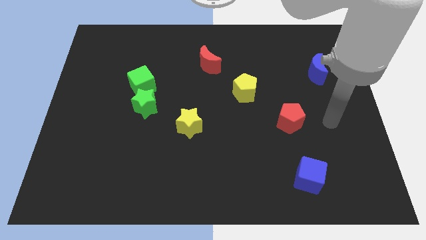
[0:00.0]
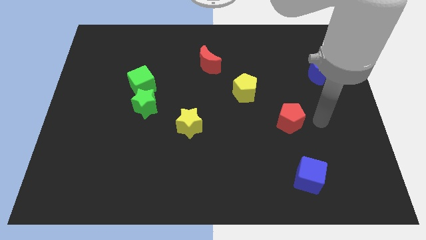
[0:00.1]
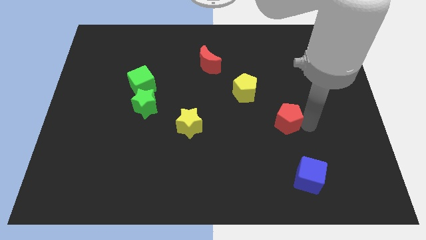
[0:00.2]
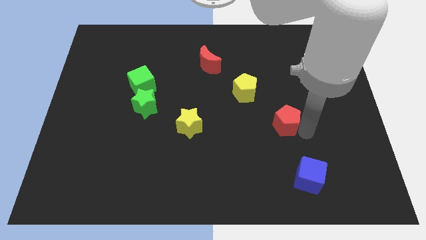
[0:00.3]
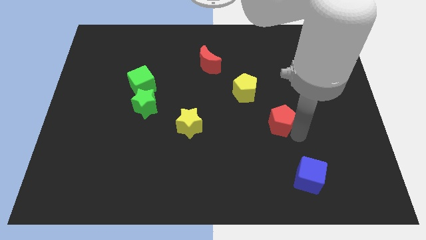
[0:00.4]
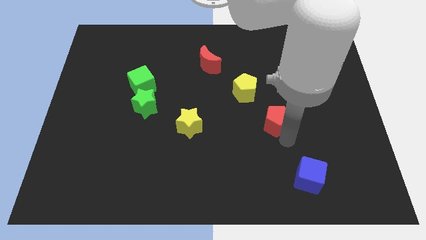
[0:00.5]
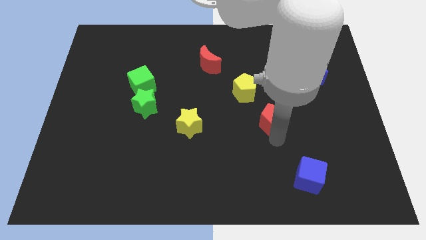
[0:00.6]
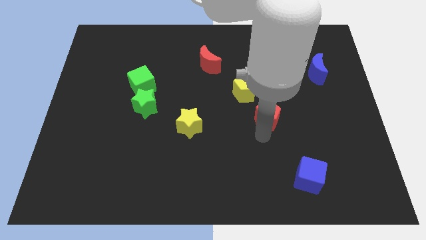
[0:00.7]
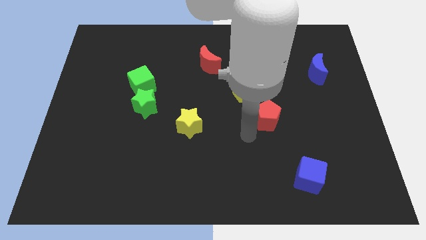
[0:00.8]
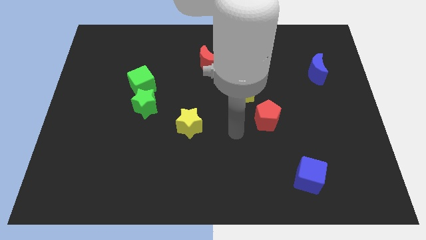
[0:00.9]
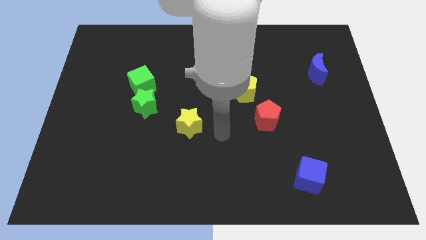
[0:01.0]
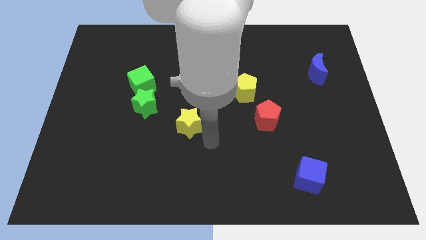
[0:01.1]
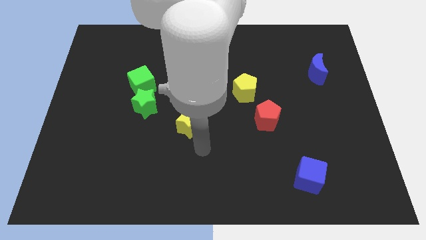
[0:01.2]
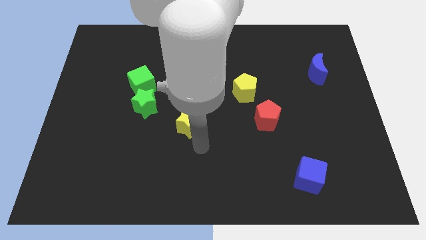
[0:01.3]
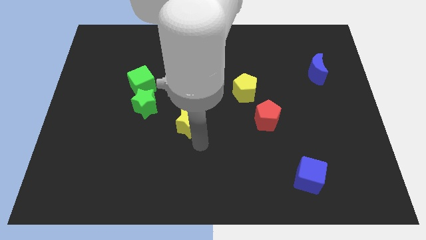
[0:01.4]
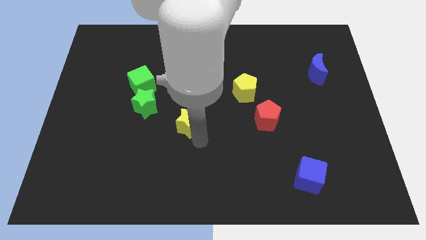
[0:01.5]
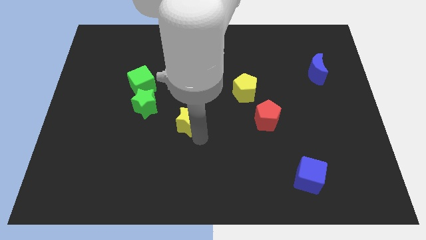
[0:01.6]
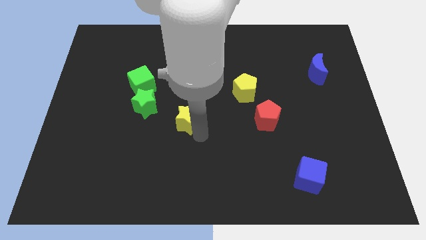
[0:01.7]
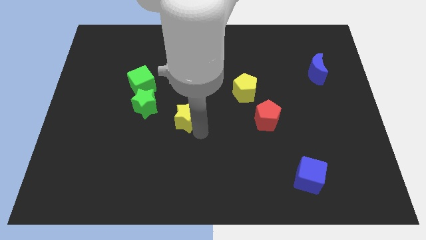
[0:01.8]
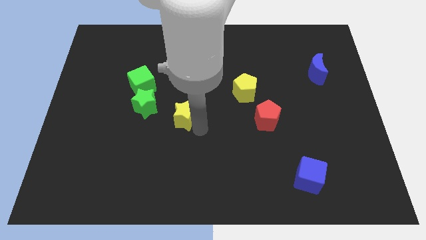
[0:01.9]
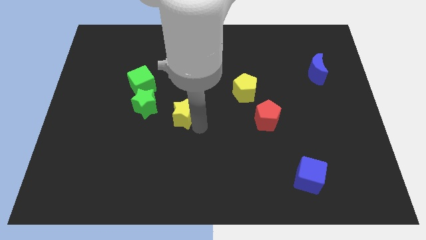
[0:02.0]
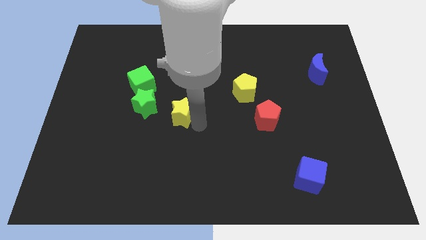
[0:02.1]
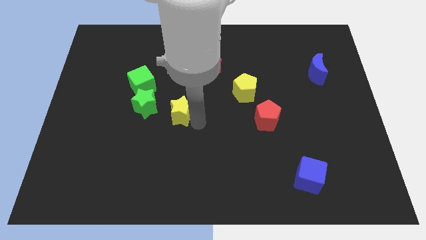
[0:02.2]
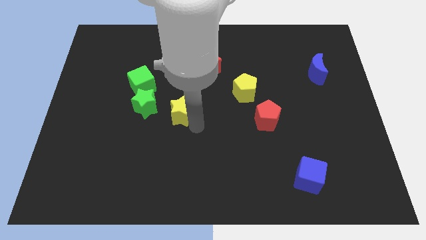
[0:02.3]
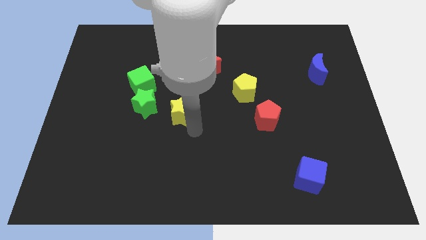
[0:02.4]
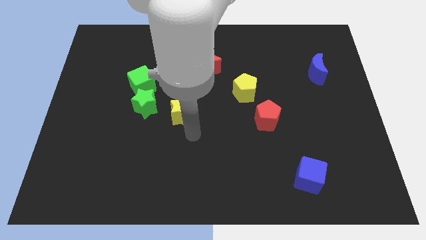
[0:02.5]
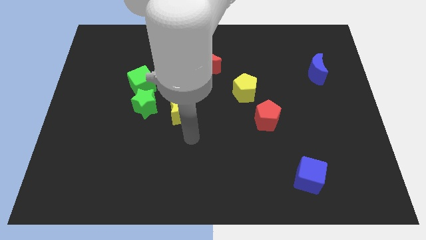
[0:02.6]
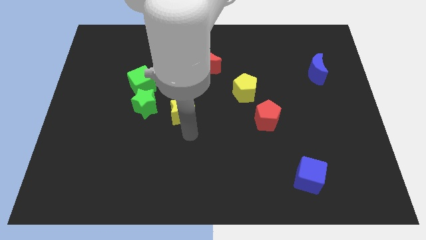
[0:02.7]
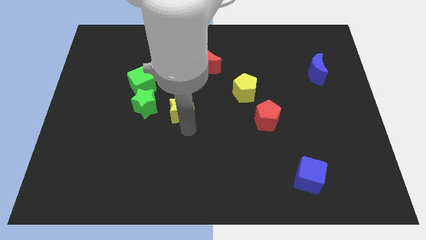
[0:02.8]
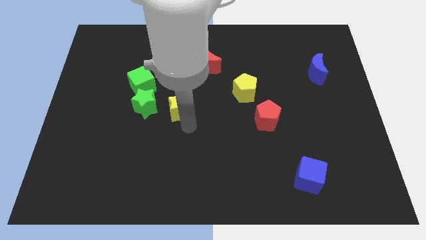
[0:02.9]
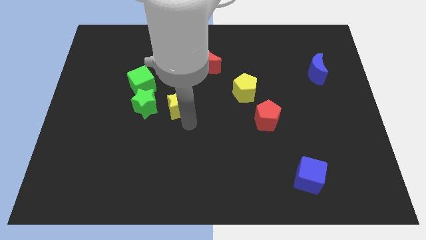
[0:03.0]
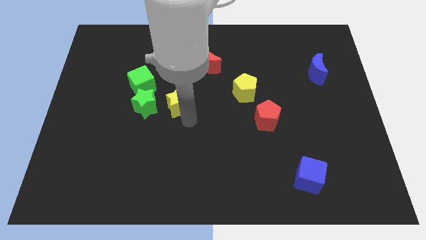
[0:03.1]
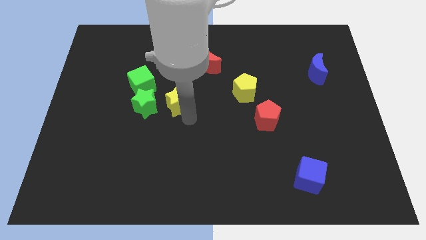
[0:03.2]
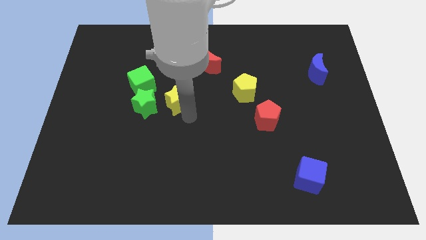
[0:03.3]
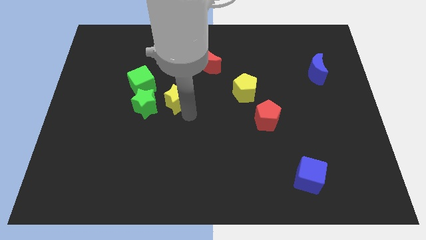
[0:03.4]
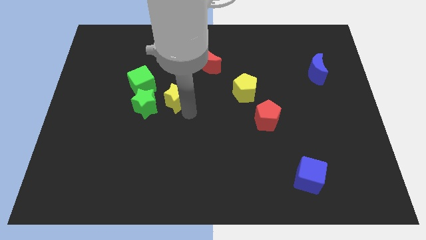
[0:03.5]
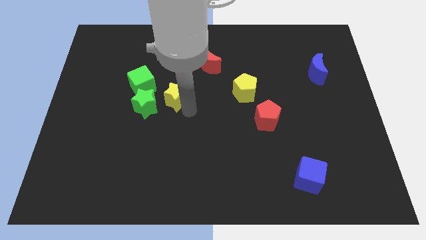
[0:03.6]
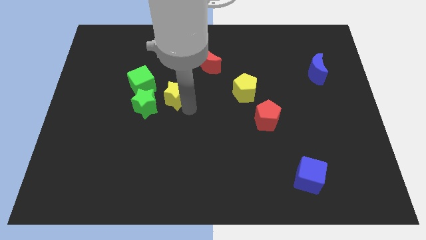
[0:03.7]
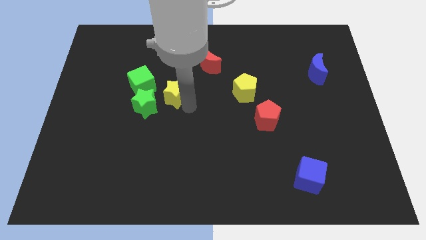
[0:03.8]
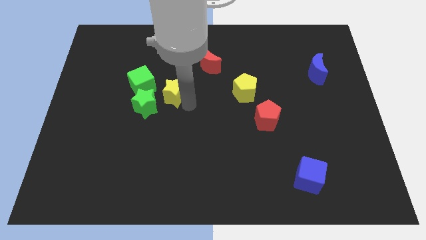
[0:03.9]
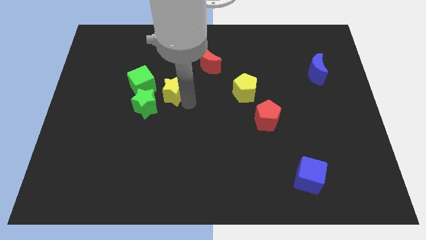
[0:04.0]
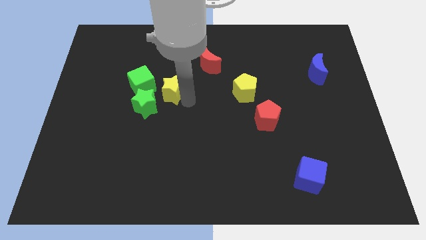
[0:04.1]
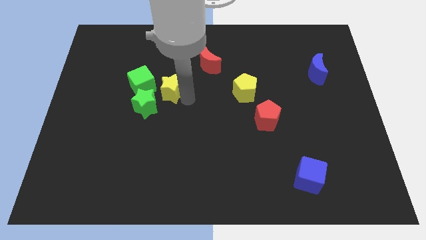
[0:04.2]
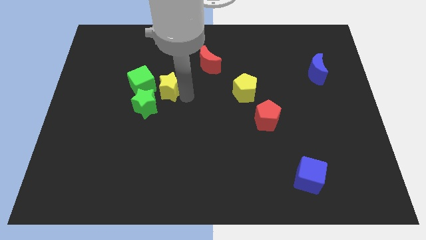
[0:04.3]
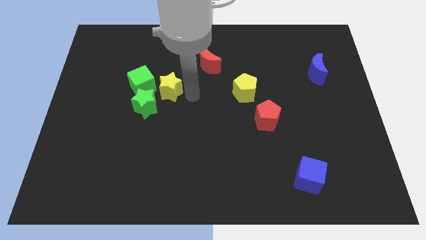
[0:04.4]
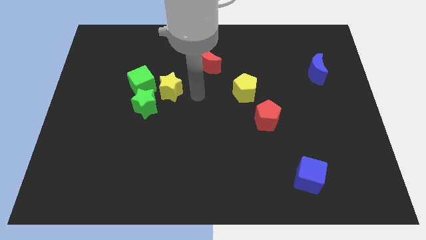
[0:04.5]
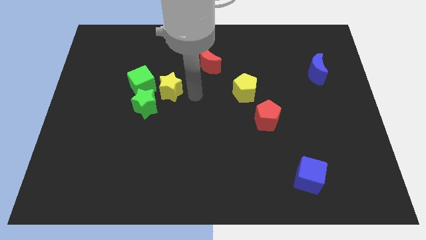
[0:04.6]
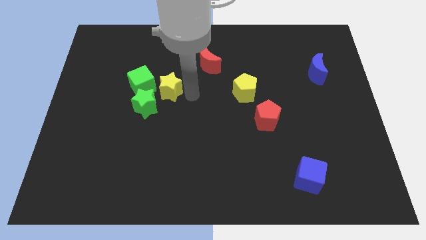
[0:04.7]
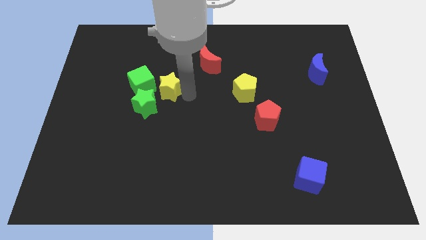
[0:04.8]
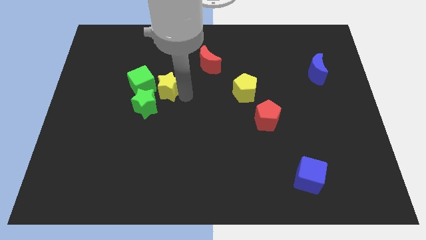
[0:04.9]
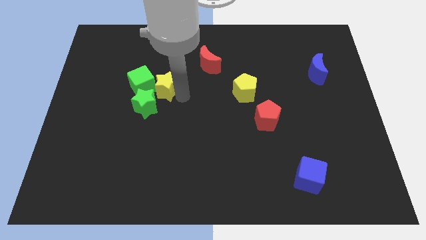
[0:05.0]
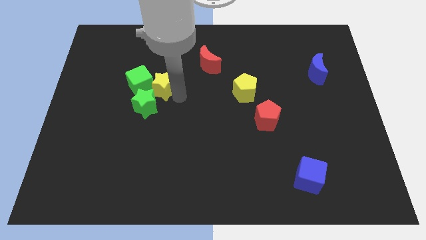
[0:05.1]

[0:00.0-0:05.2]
push the yellow star close to the green cube

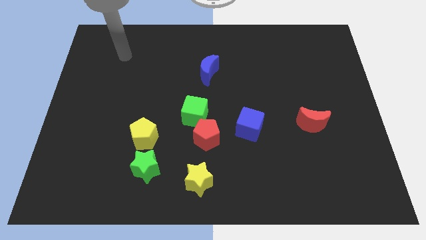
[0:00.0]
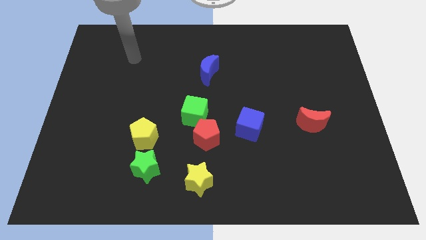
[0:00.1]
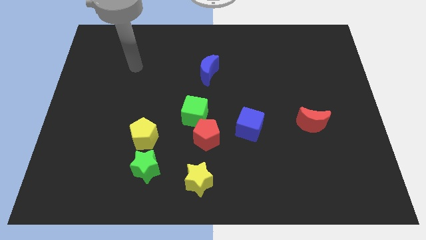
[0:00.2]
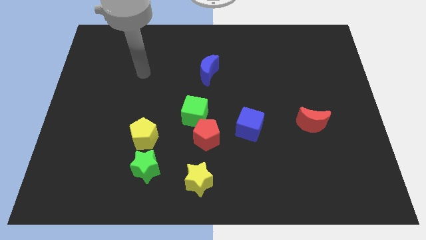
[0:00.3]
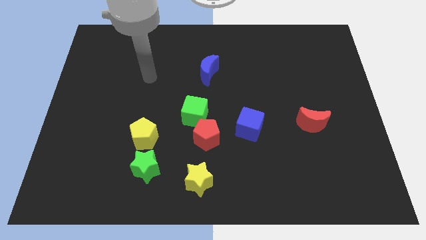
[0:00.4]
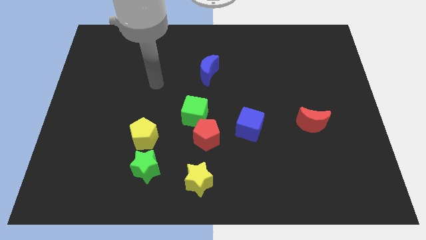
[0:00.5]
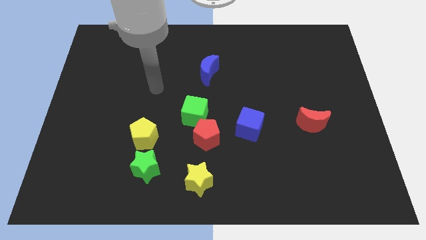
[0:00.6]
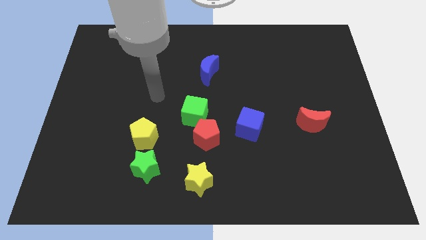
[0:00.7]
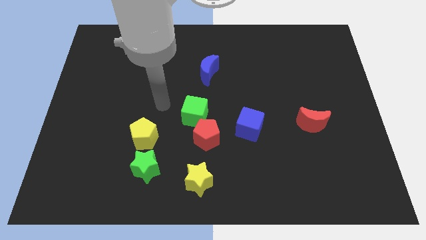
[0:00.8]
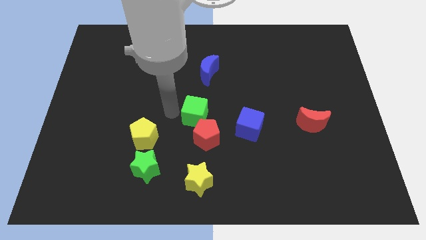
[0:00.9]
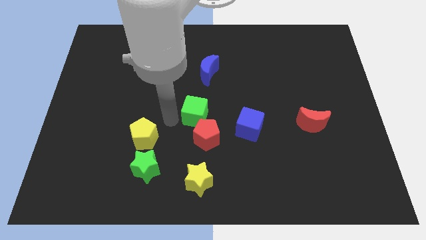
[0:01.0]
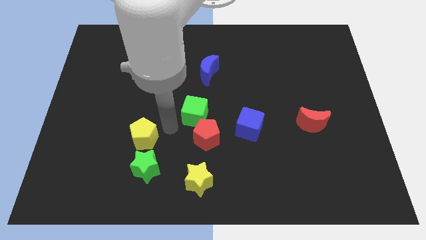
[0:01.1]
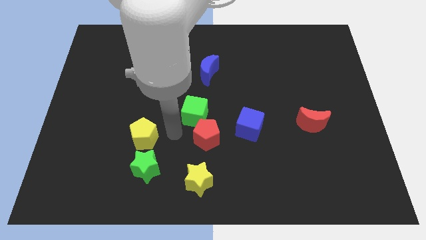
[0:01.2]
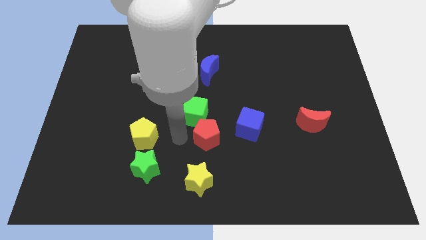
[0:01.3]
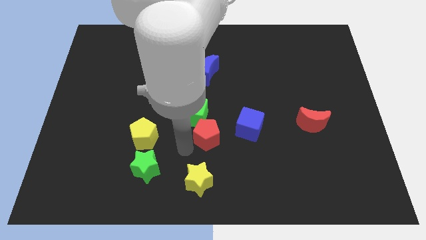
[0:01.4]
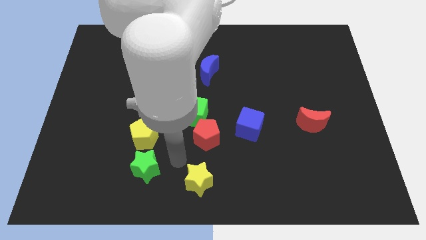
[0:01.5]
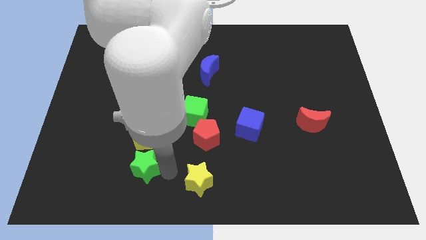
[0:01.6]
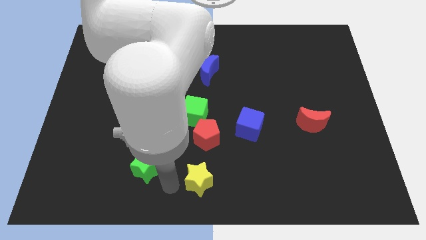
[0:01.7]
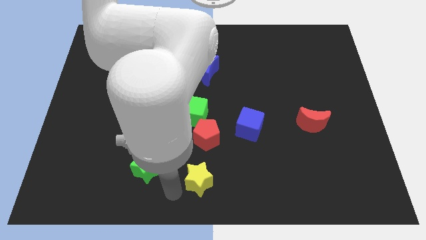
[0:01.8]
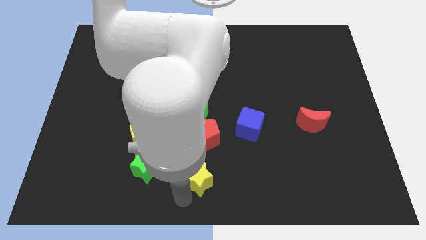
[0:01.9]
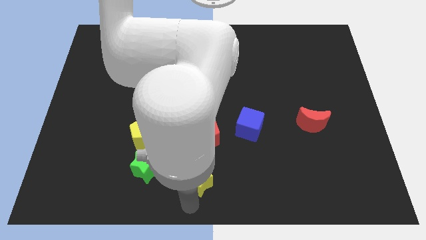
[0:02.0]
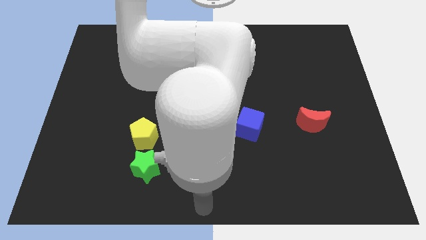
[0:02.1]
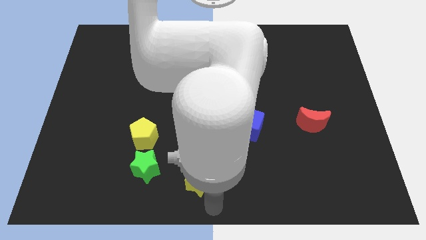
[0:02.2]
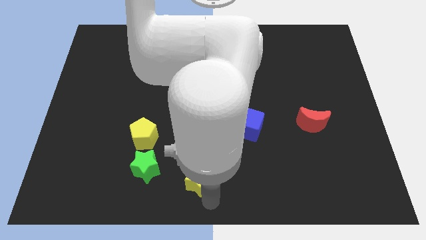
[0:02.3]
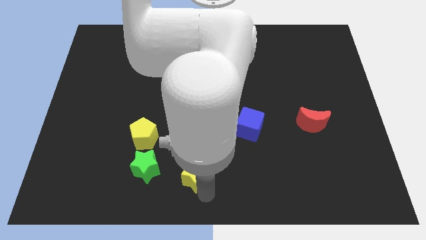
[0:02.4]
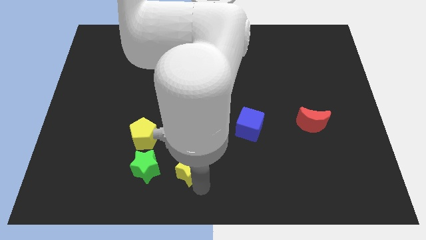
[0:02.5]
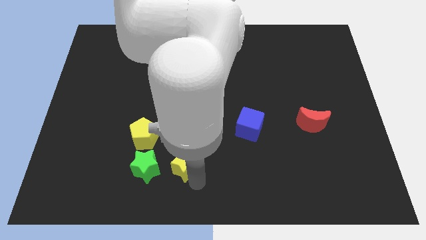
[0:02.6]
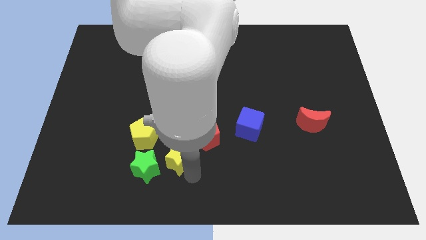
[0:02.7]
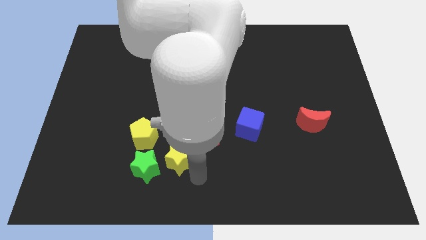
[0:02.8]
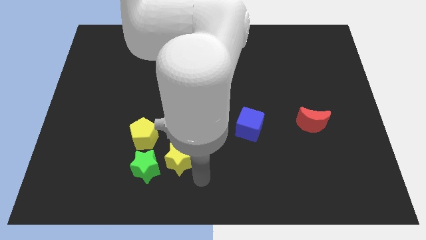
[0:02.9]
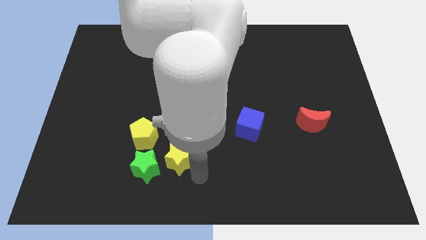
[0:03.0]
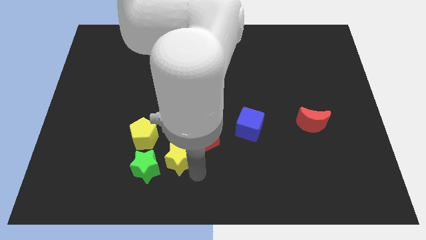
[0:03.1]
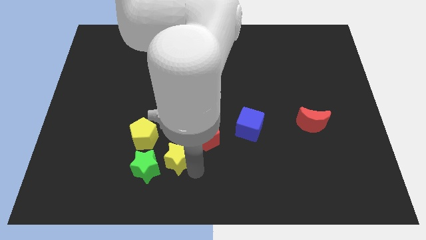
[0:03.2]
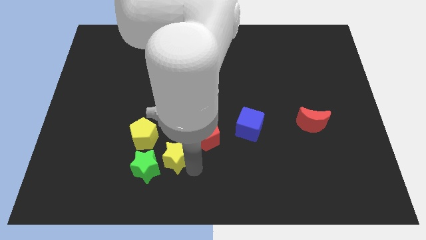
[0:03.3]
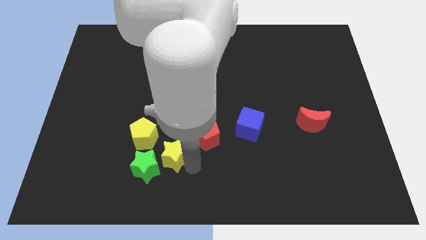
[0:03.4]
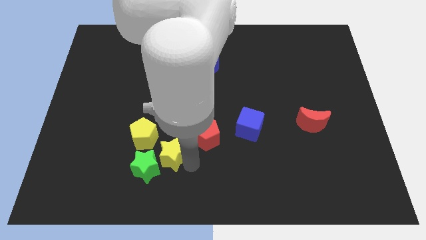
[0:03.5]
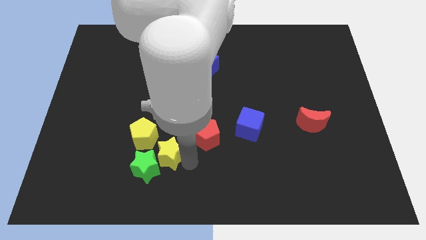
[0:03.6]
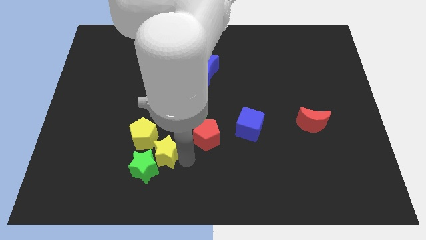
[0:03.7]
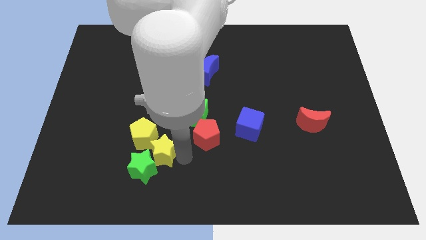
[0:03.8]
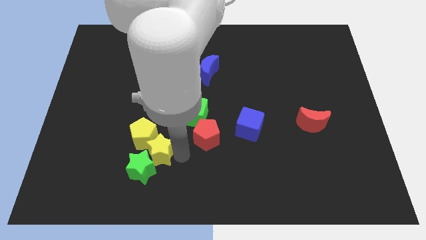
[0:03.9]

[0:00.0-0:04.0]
push the yellow star to the yellow pentagon
